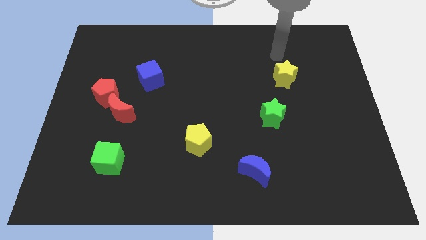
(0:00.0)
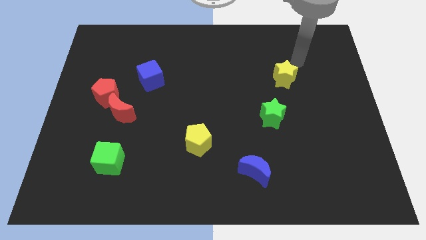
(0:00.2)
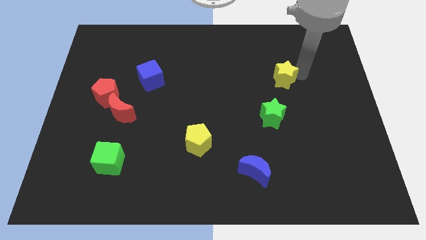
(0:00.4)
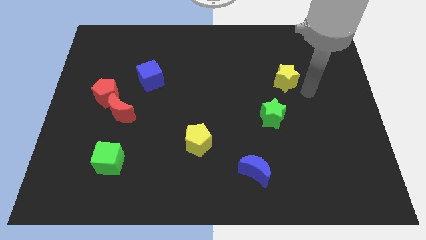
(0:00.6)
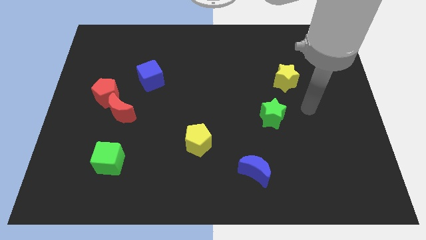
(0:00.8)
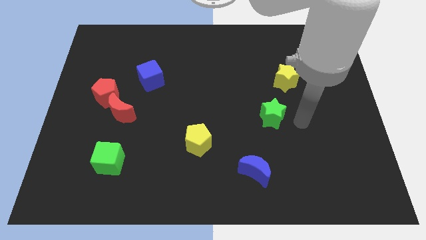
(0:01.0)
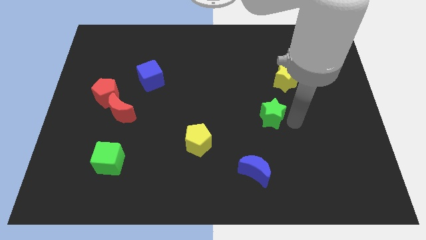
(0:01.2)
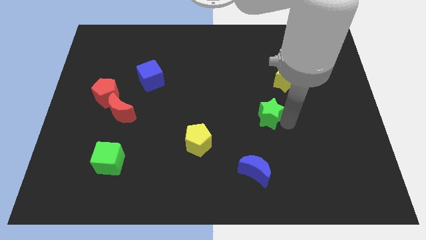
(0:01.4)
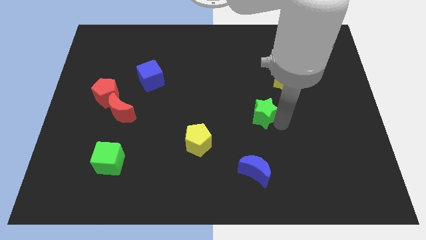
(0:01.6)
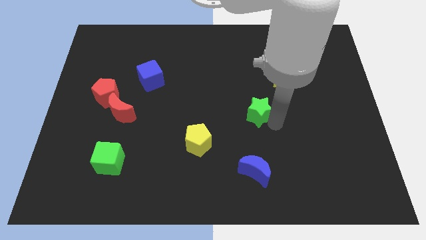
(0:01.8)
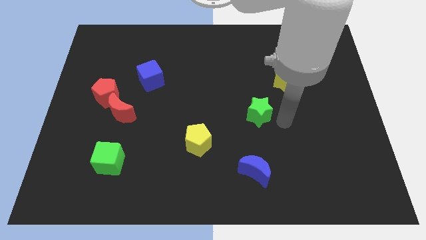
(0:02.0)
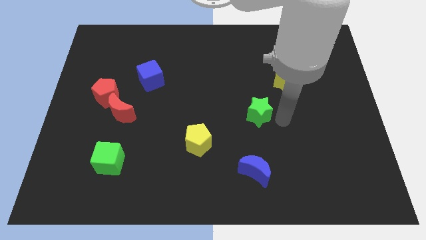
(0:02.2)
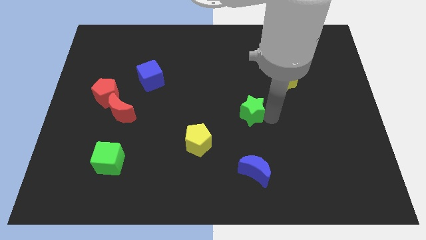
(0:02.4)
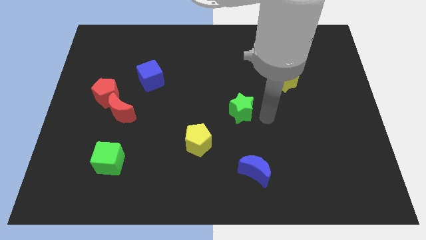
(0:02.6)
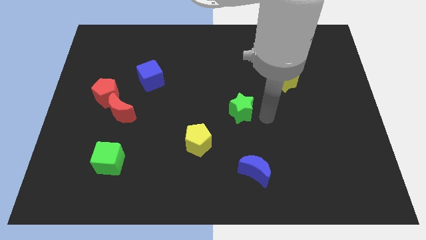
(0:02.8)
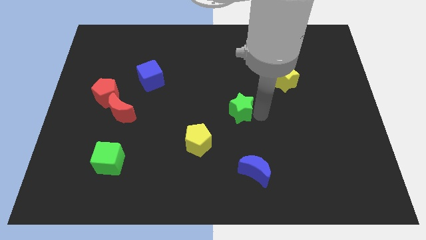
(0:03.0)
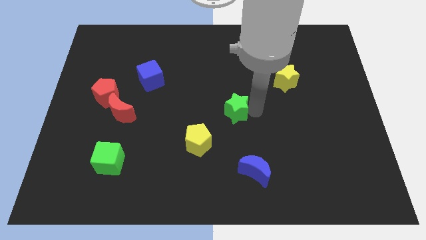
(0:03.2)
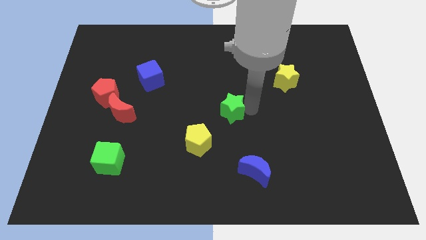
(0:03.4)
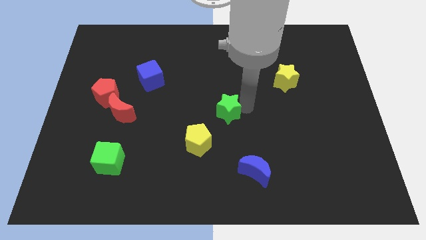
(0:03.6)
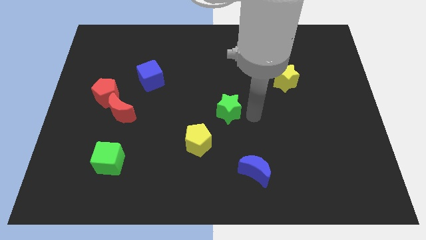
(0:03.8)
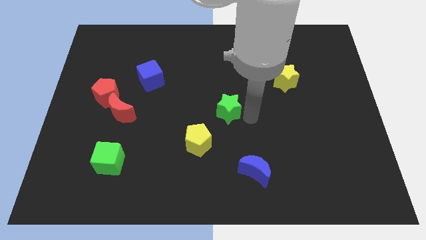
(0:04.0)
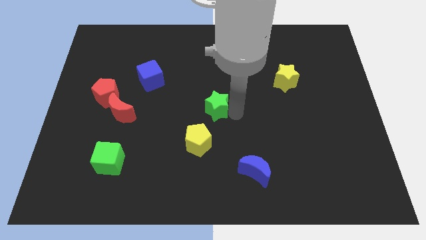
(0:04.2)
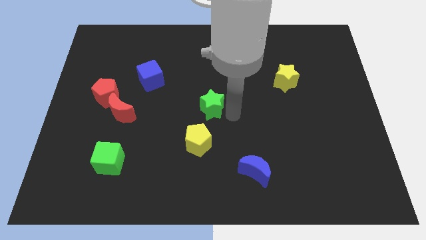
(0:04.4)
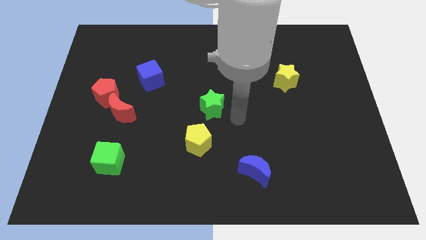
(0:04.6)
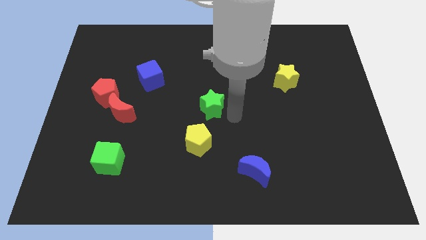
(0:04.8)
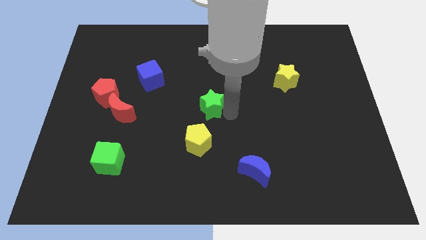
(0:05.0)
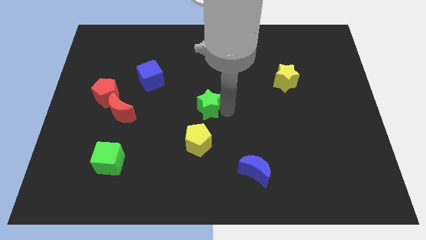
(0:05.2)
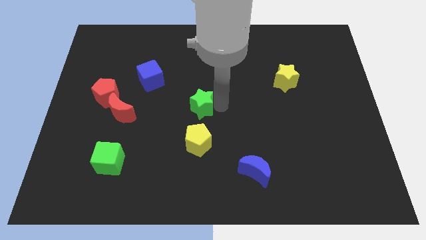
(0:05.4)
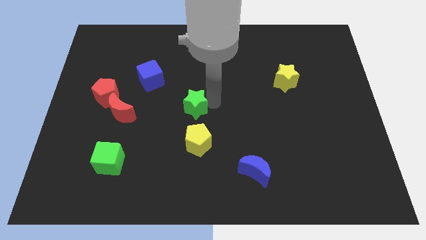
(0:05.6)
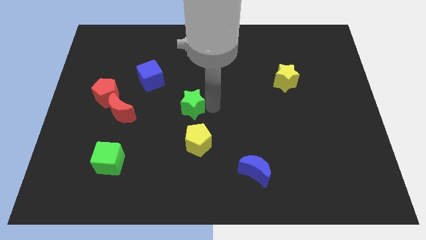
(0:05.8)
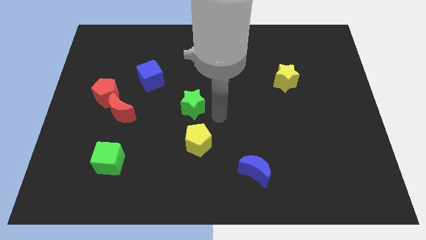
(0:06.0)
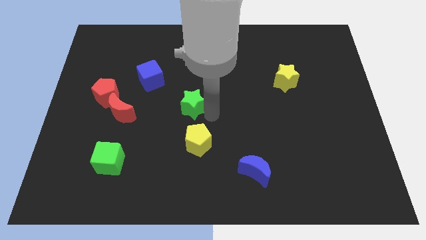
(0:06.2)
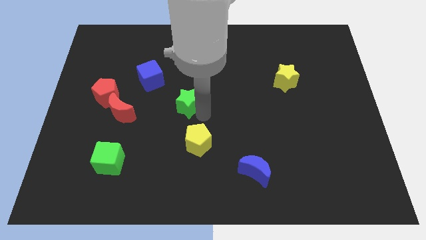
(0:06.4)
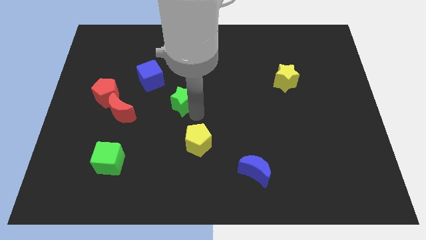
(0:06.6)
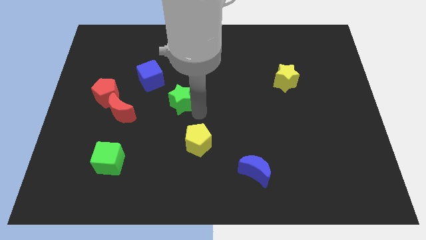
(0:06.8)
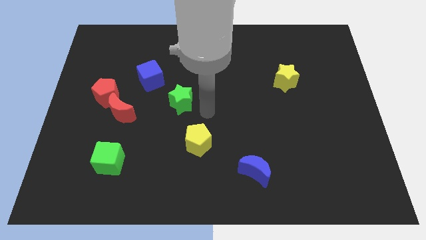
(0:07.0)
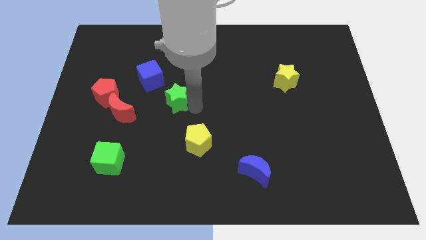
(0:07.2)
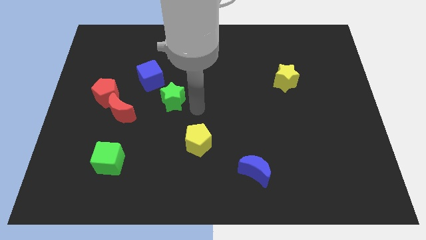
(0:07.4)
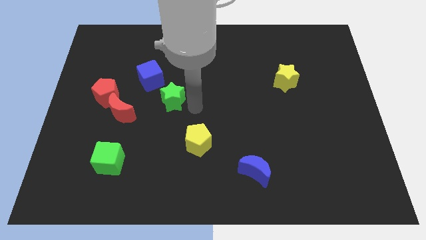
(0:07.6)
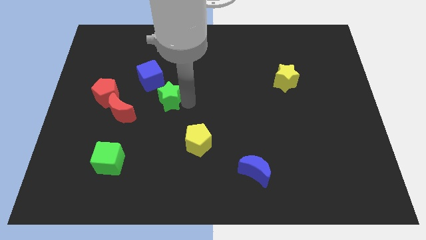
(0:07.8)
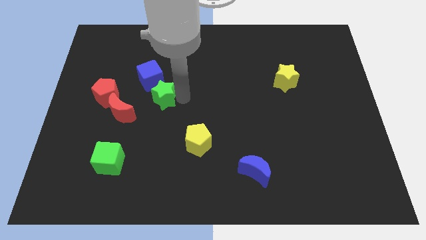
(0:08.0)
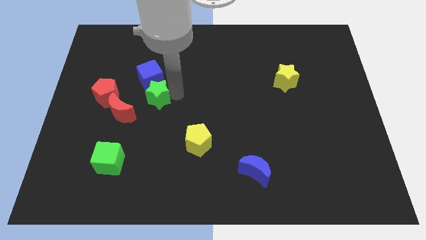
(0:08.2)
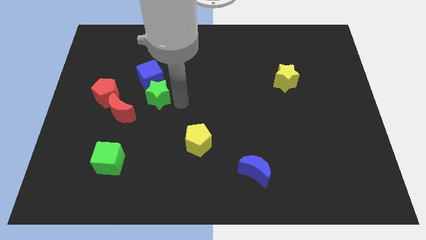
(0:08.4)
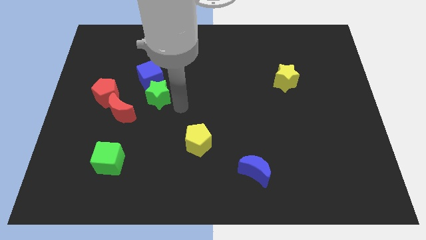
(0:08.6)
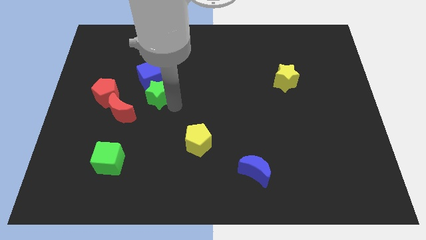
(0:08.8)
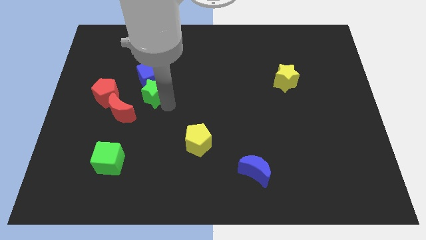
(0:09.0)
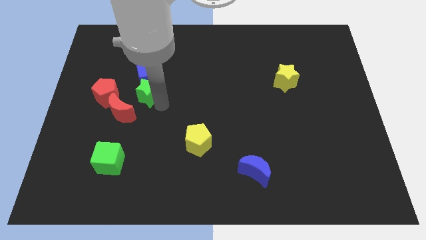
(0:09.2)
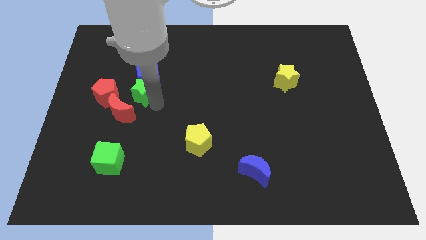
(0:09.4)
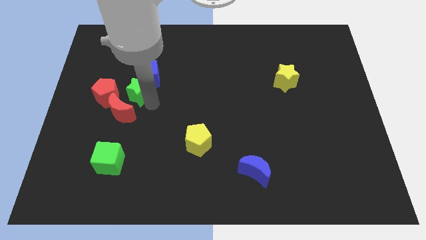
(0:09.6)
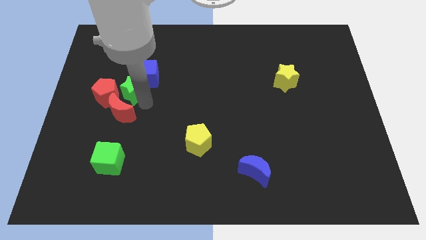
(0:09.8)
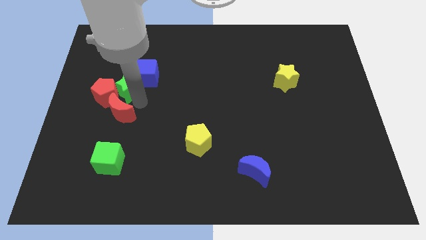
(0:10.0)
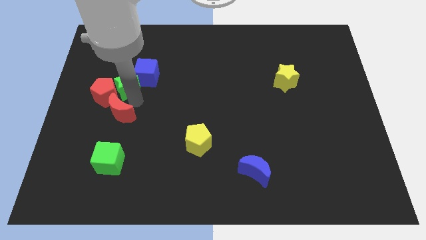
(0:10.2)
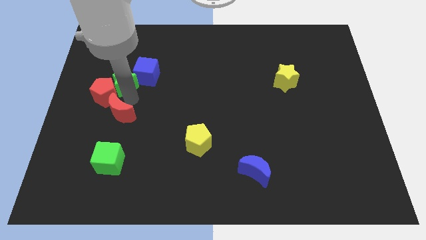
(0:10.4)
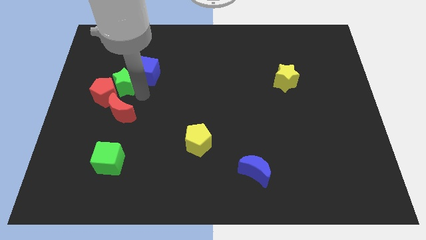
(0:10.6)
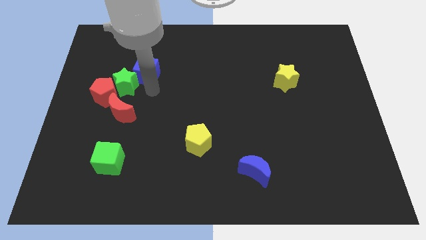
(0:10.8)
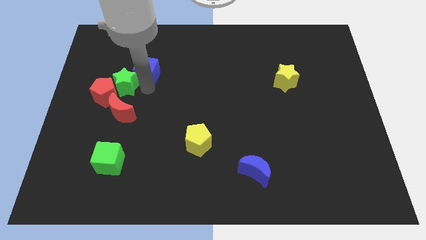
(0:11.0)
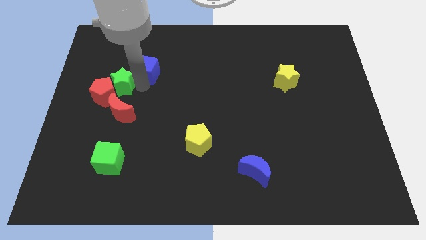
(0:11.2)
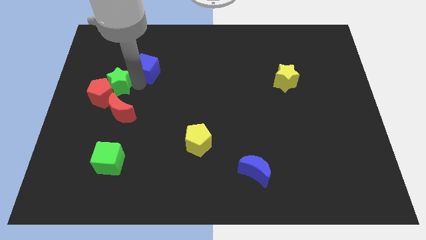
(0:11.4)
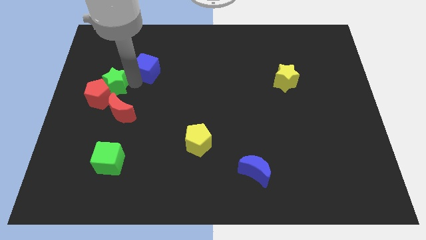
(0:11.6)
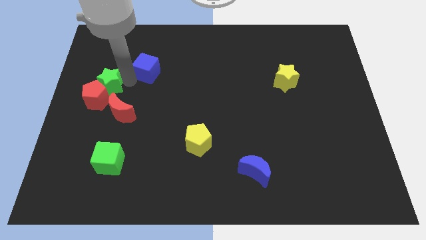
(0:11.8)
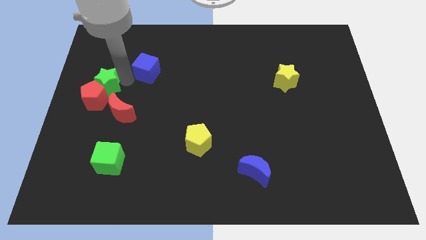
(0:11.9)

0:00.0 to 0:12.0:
put the green star to the left side
